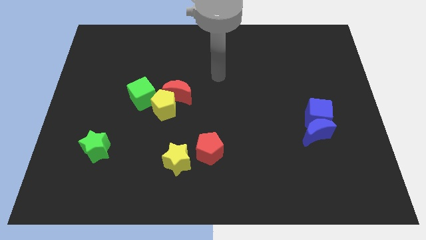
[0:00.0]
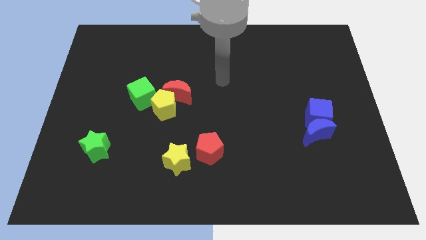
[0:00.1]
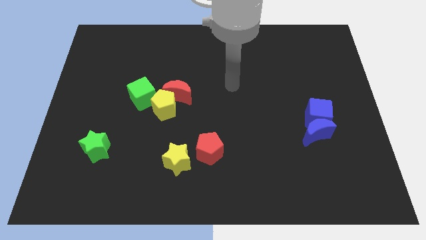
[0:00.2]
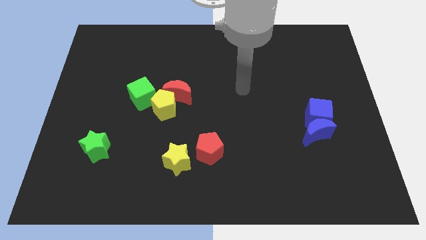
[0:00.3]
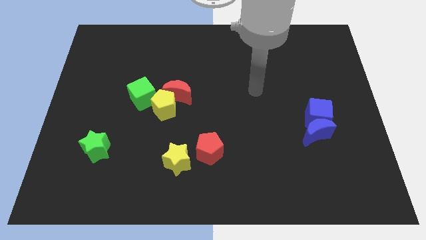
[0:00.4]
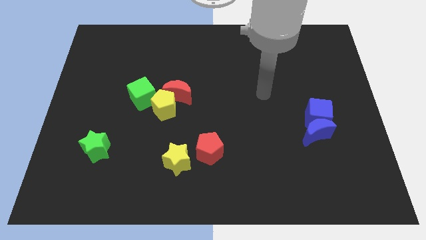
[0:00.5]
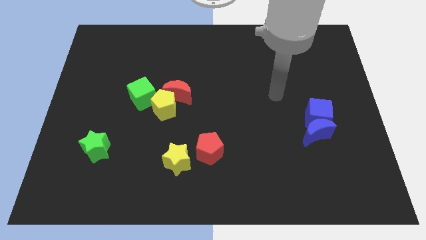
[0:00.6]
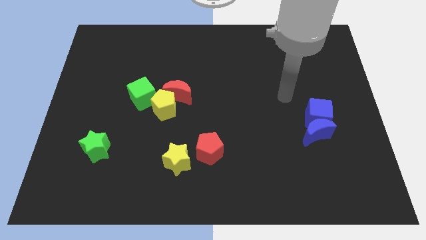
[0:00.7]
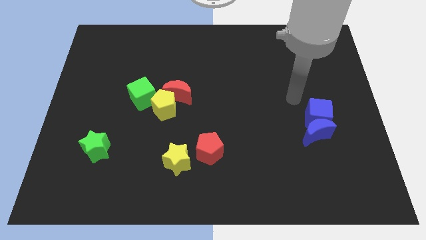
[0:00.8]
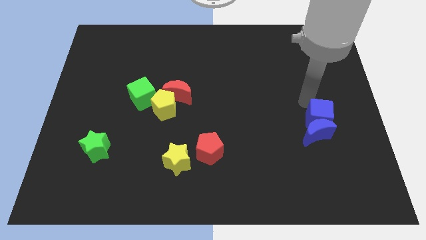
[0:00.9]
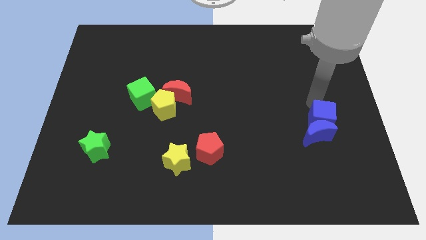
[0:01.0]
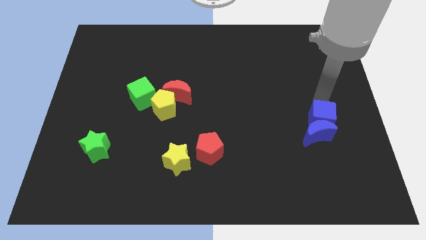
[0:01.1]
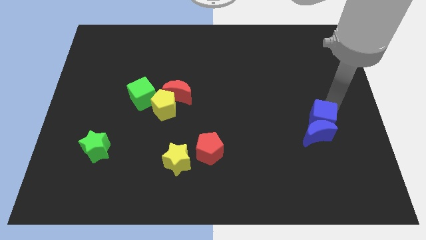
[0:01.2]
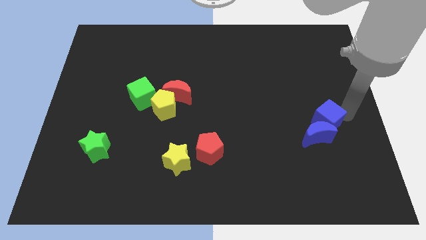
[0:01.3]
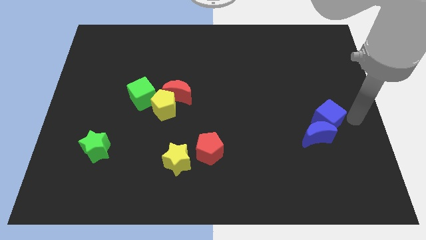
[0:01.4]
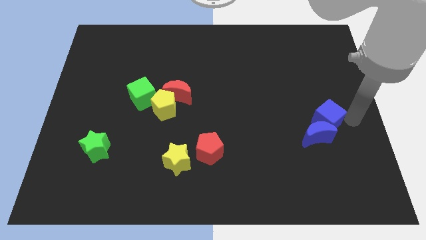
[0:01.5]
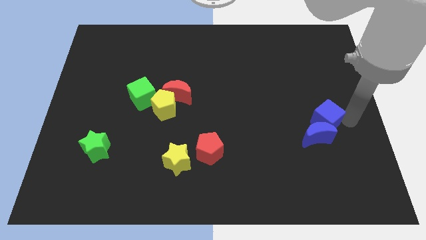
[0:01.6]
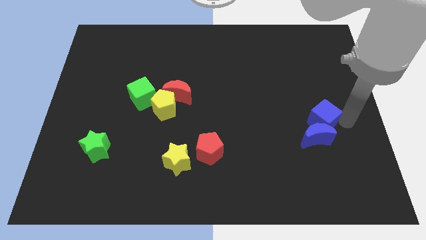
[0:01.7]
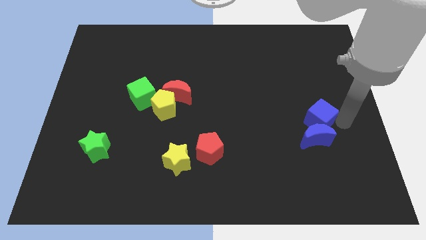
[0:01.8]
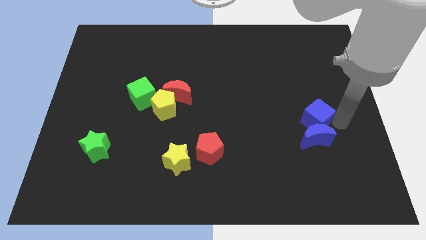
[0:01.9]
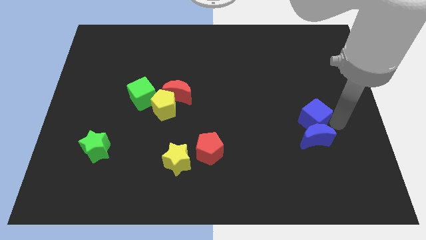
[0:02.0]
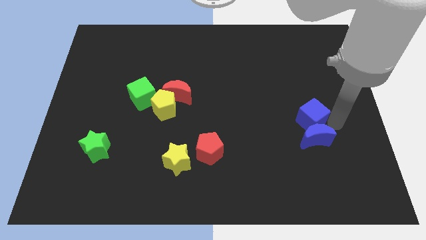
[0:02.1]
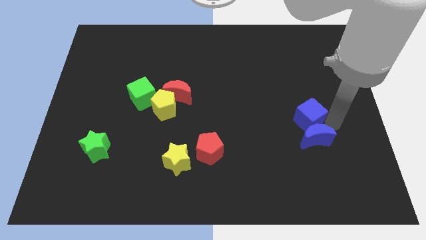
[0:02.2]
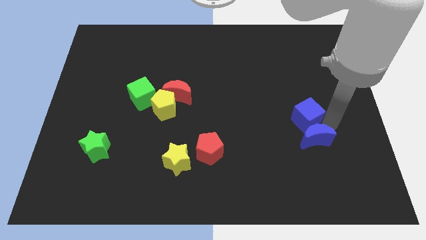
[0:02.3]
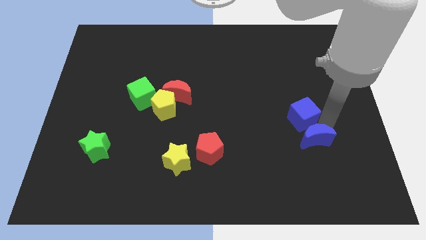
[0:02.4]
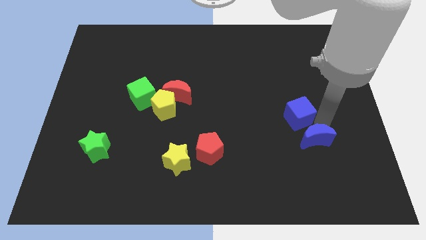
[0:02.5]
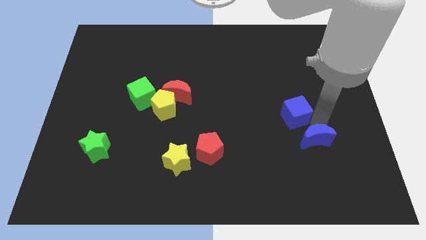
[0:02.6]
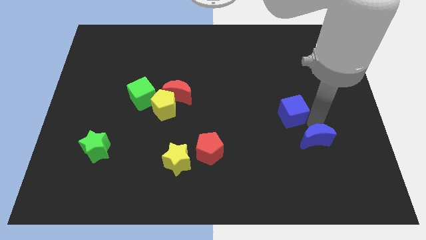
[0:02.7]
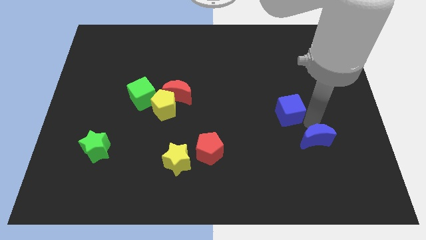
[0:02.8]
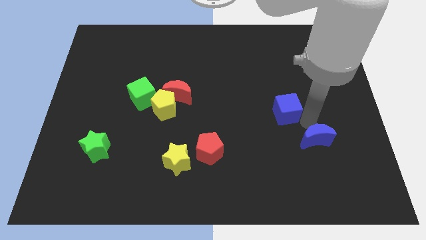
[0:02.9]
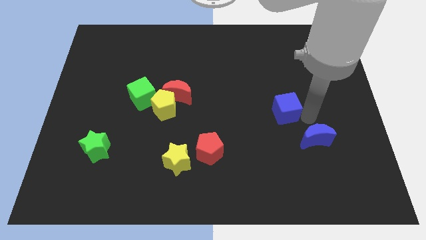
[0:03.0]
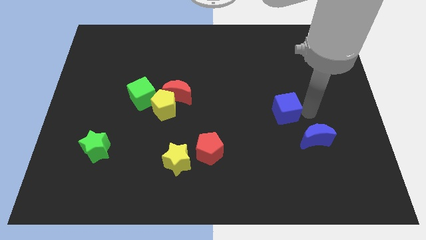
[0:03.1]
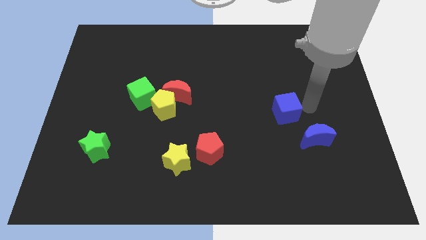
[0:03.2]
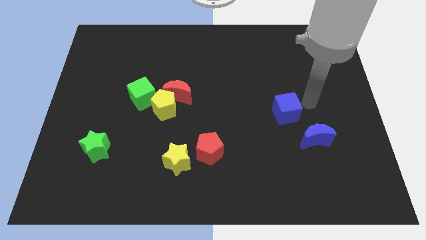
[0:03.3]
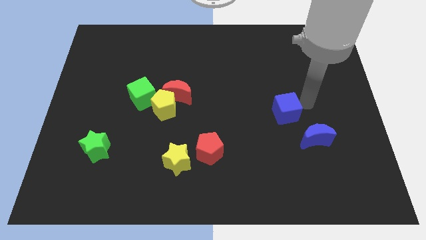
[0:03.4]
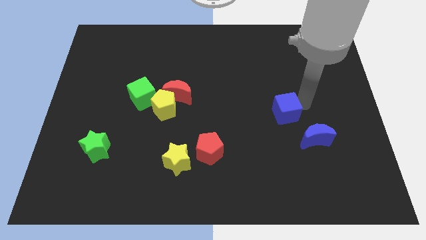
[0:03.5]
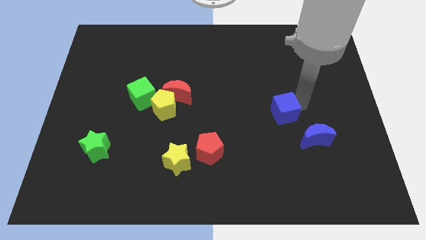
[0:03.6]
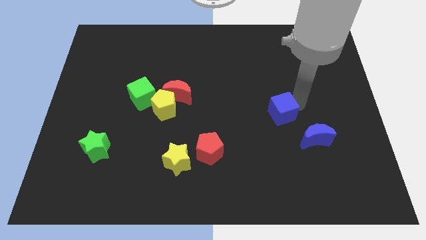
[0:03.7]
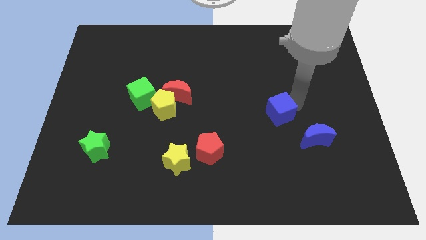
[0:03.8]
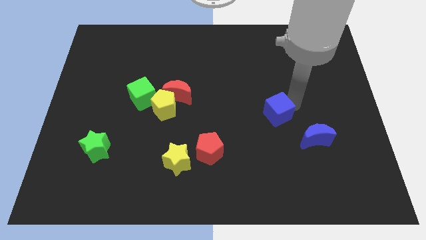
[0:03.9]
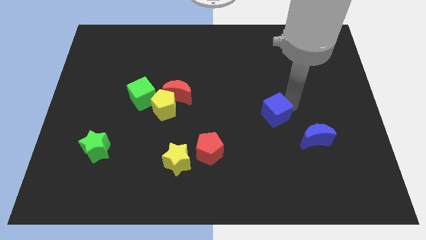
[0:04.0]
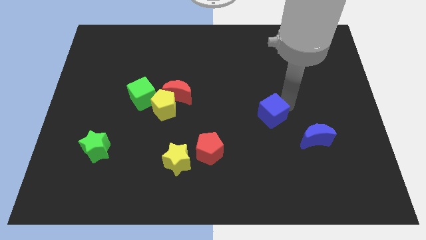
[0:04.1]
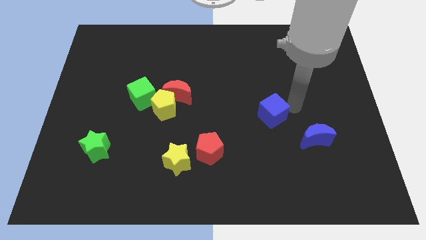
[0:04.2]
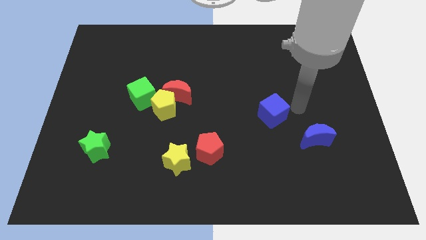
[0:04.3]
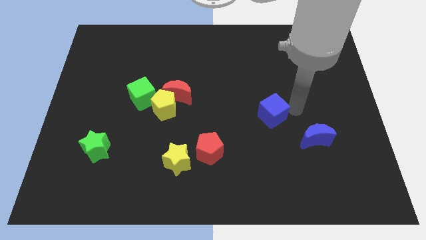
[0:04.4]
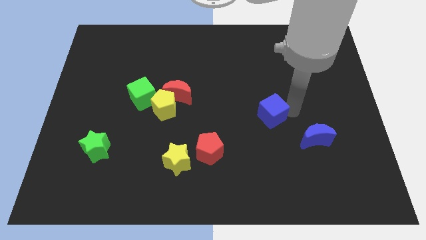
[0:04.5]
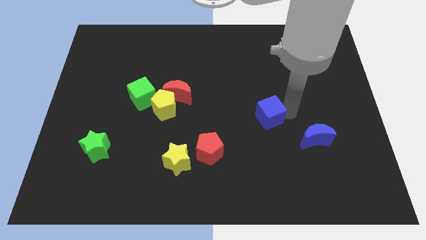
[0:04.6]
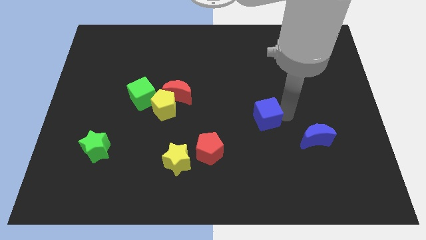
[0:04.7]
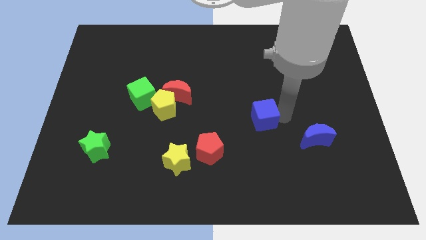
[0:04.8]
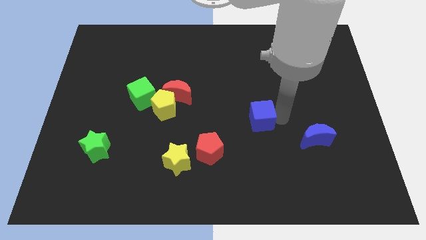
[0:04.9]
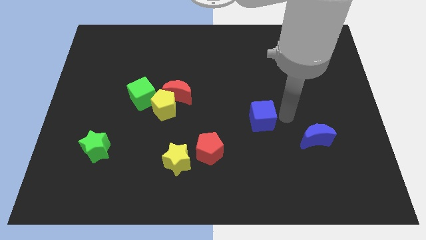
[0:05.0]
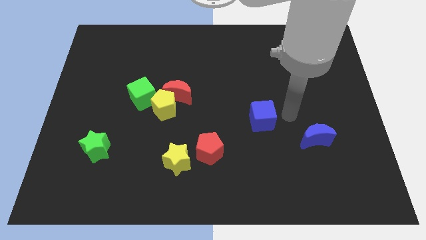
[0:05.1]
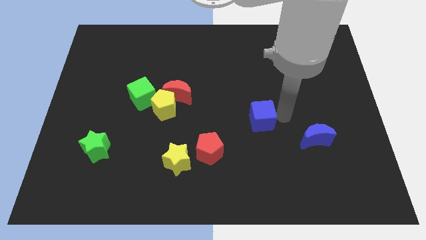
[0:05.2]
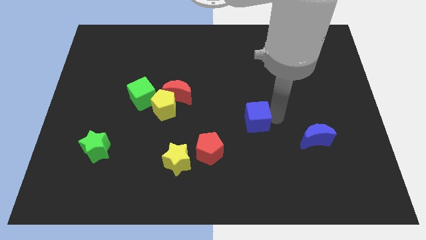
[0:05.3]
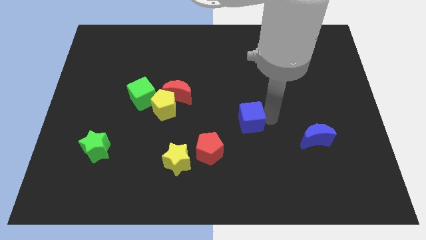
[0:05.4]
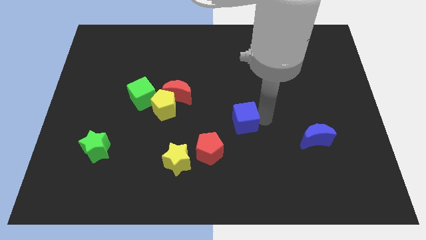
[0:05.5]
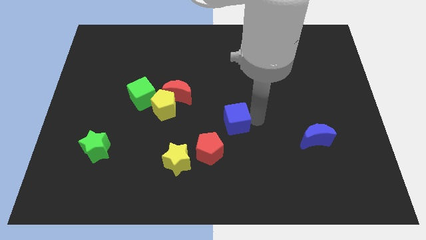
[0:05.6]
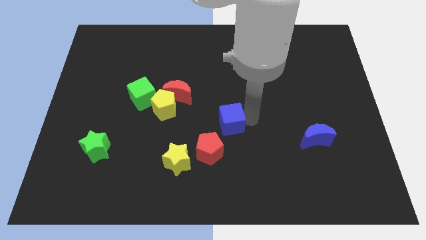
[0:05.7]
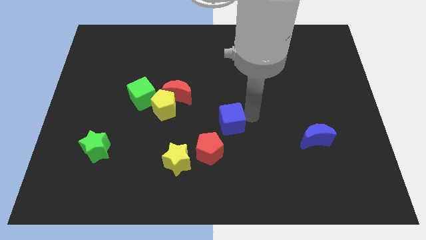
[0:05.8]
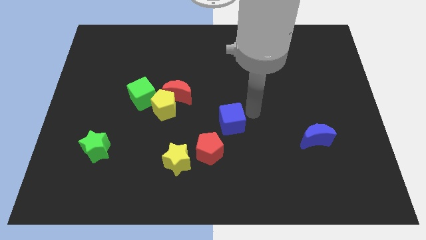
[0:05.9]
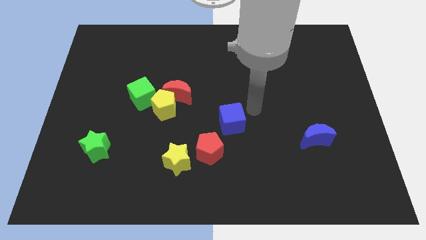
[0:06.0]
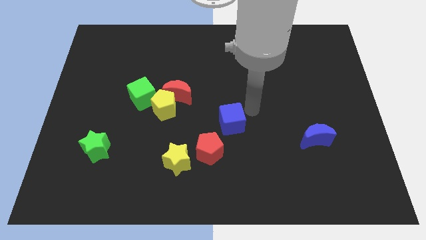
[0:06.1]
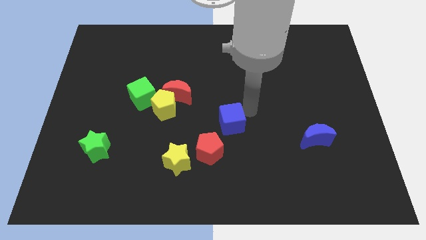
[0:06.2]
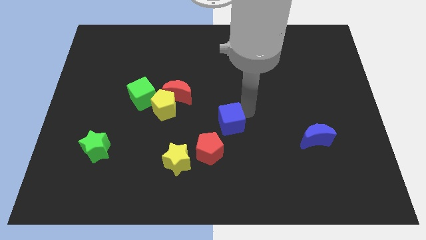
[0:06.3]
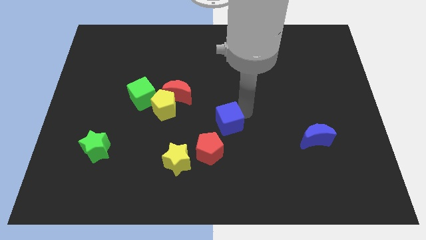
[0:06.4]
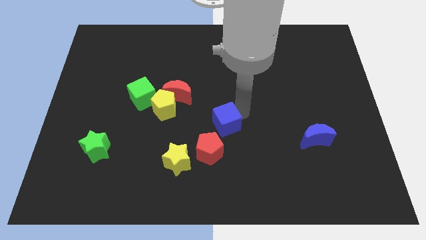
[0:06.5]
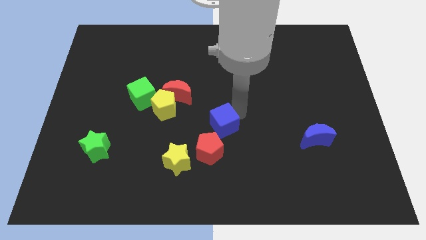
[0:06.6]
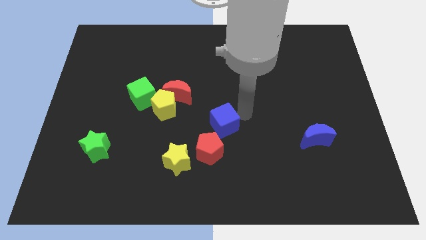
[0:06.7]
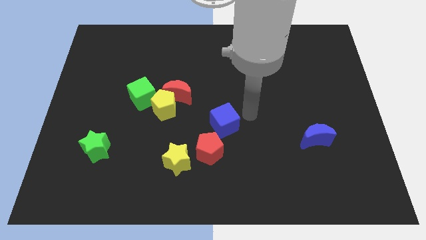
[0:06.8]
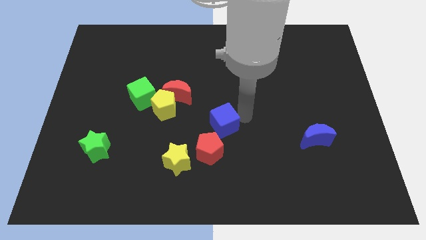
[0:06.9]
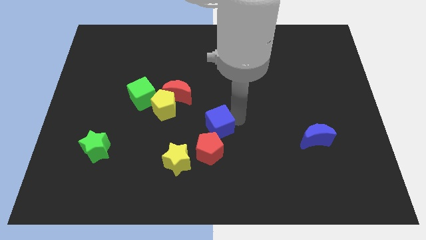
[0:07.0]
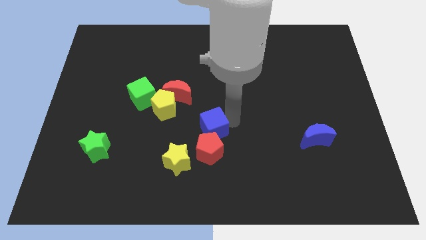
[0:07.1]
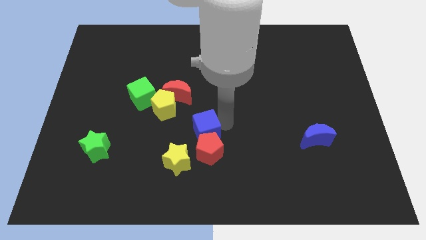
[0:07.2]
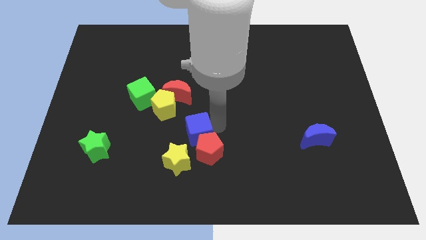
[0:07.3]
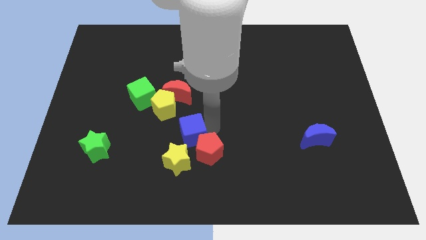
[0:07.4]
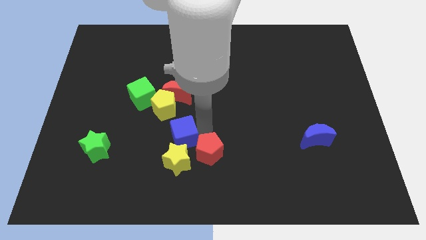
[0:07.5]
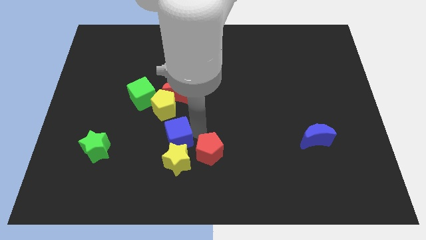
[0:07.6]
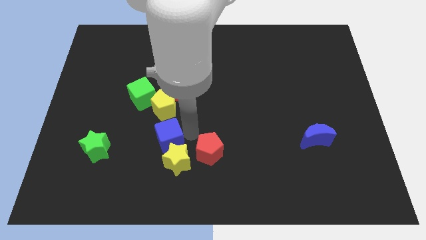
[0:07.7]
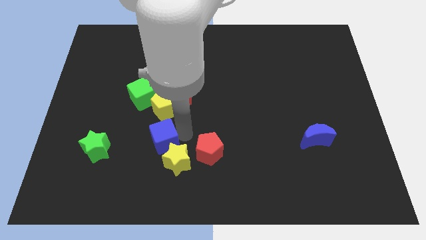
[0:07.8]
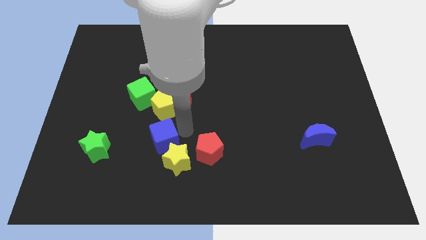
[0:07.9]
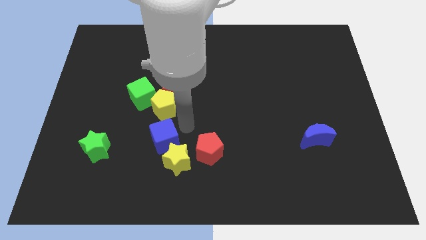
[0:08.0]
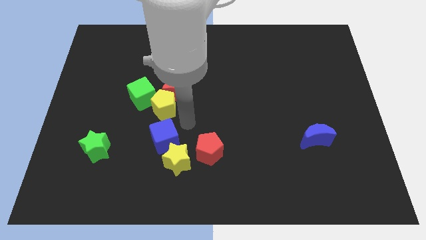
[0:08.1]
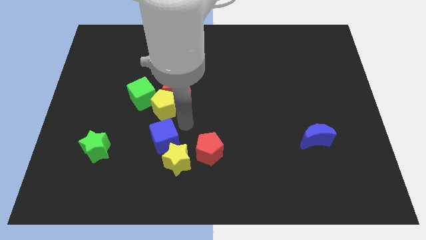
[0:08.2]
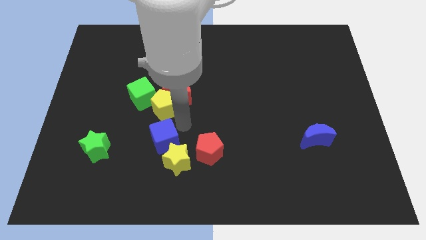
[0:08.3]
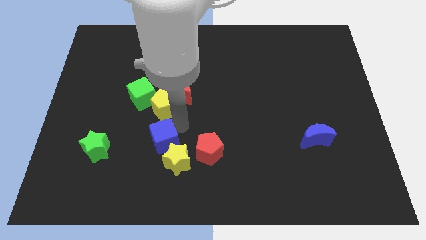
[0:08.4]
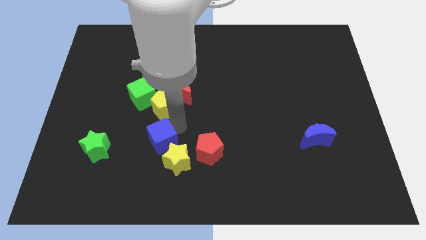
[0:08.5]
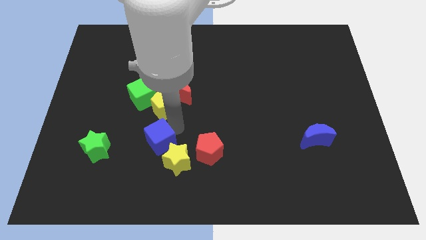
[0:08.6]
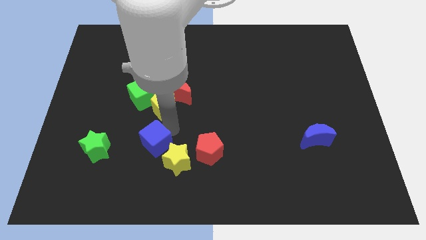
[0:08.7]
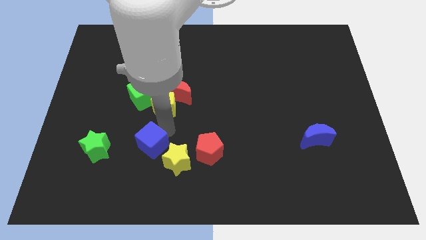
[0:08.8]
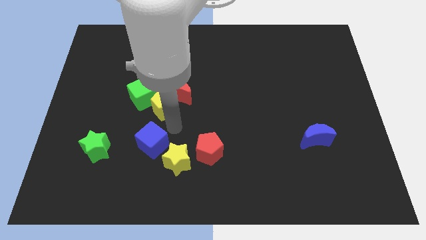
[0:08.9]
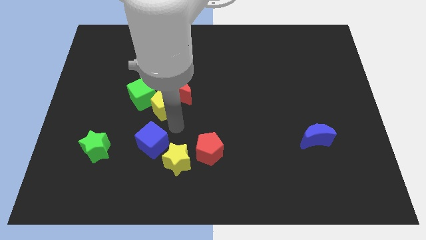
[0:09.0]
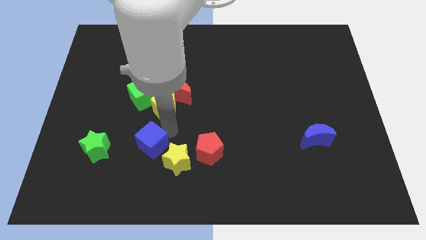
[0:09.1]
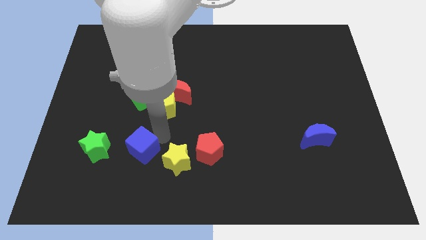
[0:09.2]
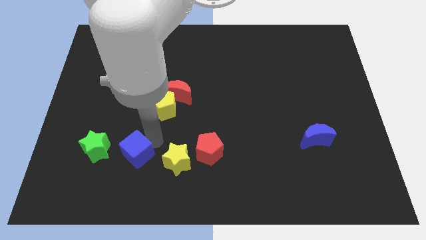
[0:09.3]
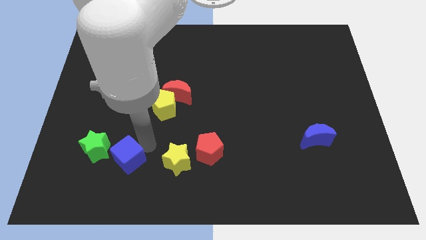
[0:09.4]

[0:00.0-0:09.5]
push the blue cube to the bottom right of the green star
